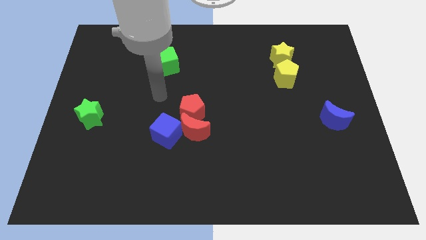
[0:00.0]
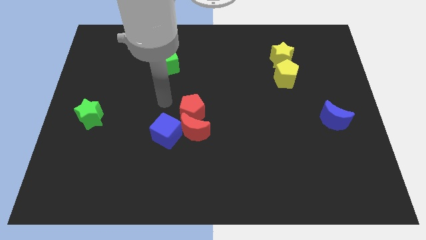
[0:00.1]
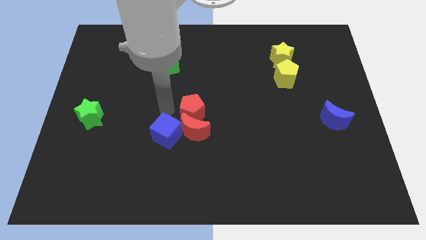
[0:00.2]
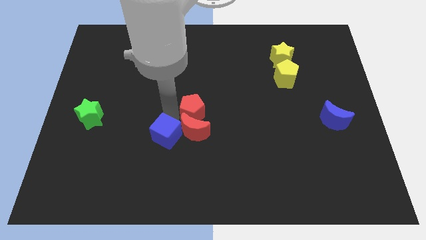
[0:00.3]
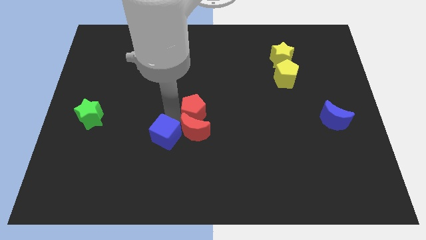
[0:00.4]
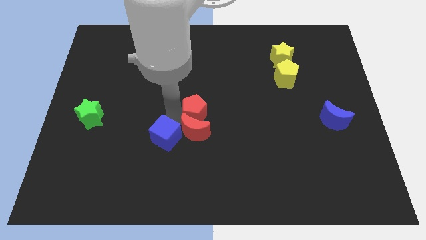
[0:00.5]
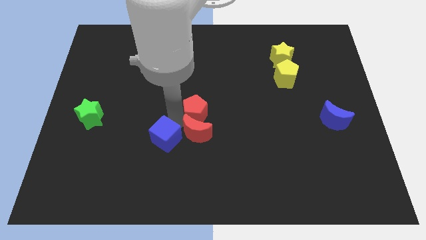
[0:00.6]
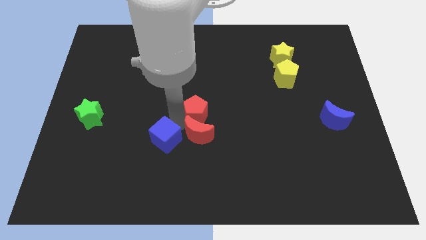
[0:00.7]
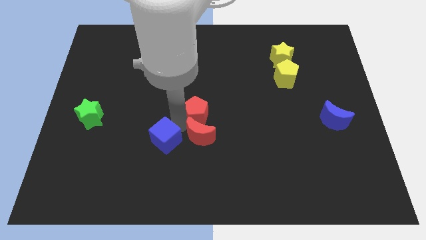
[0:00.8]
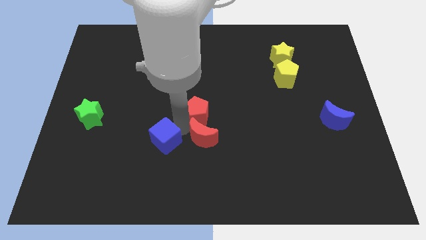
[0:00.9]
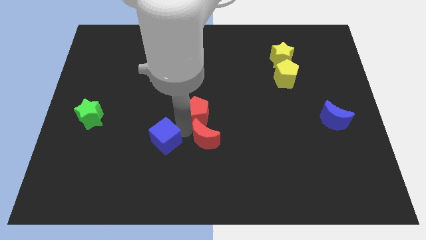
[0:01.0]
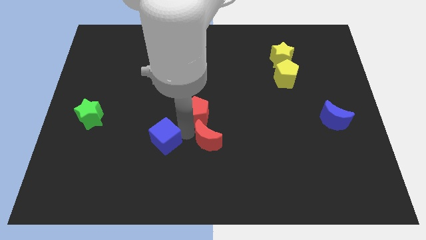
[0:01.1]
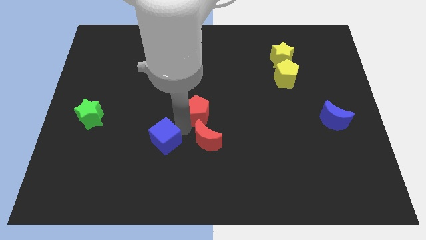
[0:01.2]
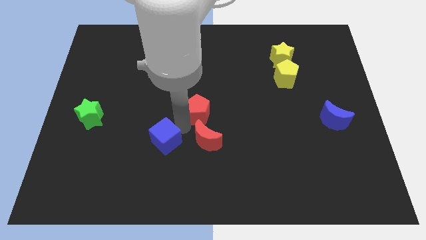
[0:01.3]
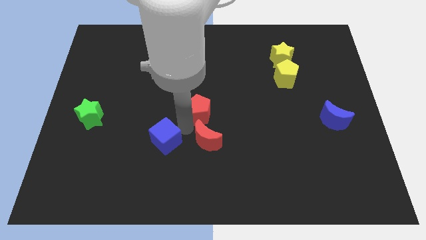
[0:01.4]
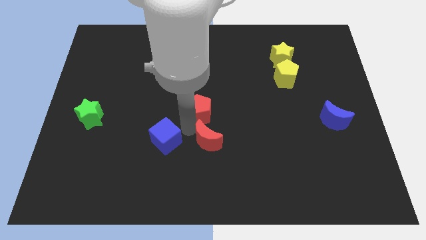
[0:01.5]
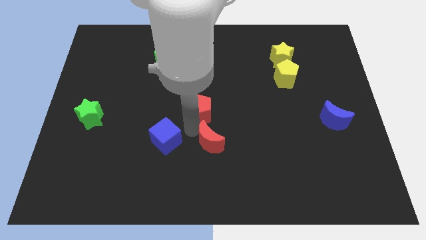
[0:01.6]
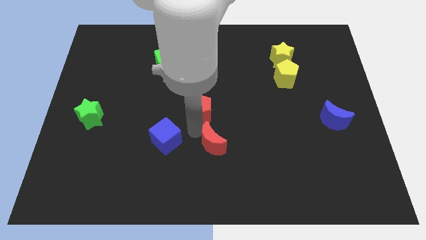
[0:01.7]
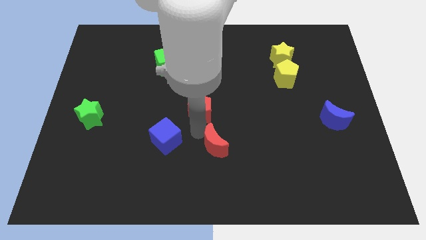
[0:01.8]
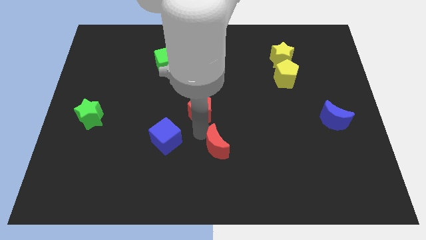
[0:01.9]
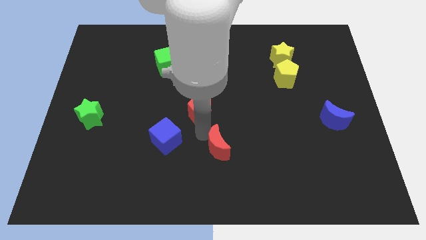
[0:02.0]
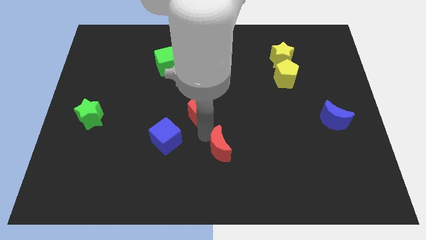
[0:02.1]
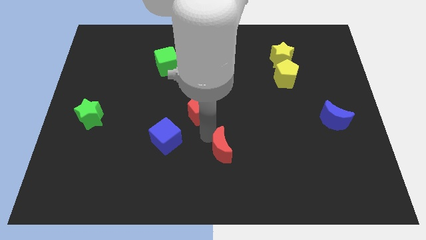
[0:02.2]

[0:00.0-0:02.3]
move the red moon away from the red pentagon and blue cube

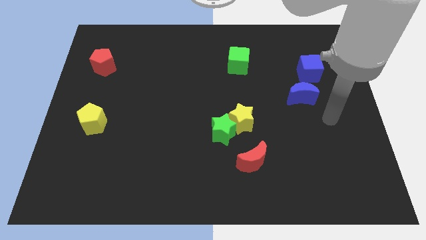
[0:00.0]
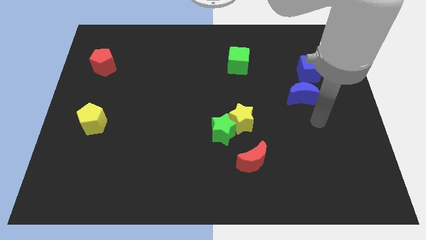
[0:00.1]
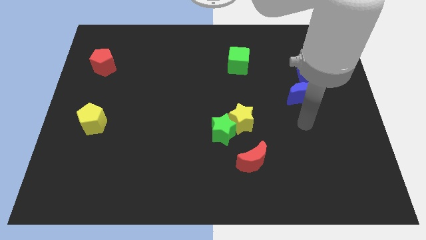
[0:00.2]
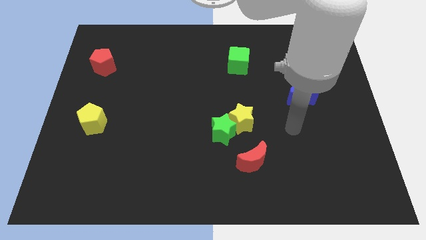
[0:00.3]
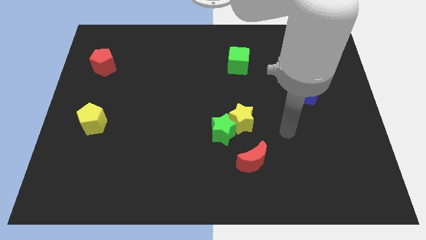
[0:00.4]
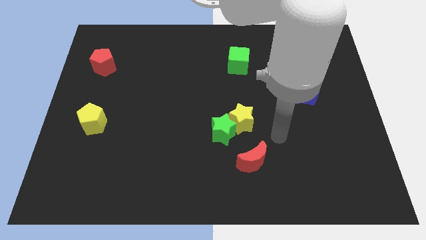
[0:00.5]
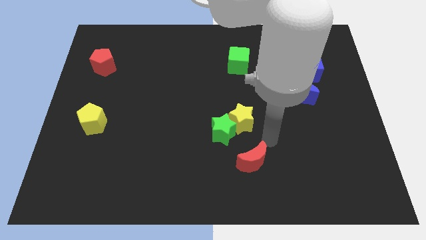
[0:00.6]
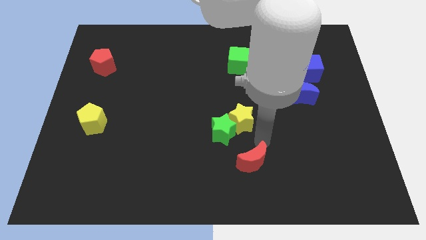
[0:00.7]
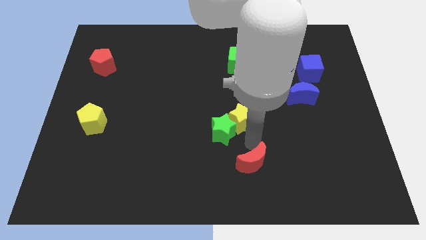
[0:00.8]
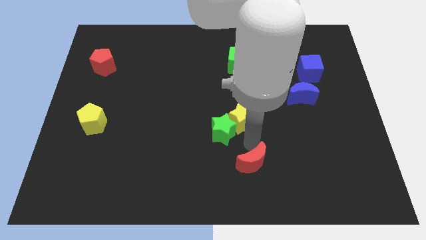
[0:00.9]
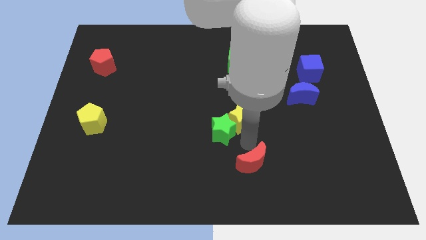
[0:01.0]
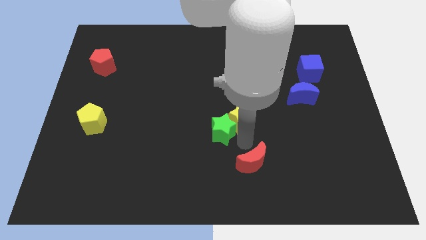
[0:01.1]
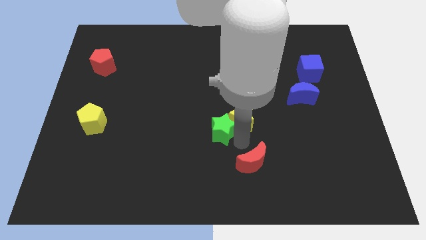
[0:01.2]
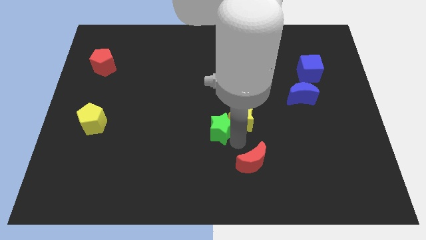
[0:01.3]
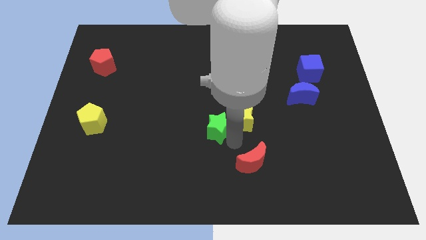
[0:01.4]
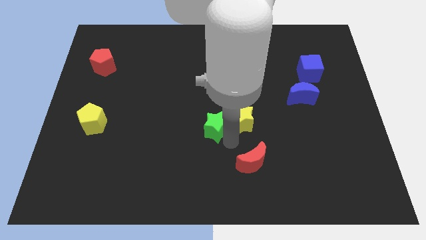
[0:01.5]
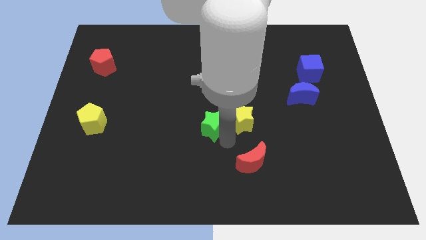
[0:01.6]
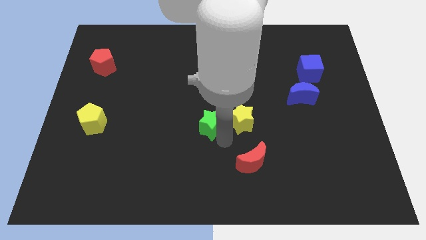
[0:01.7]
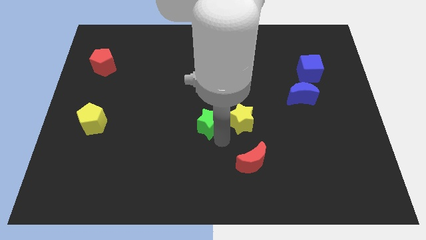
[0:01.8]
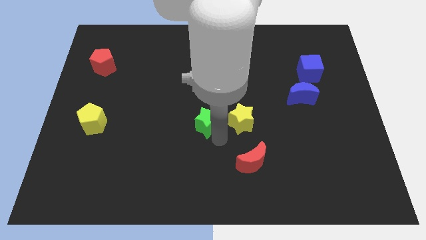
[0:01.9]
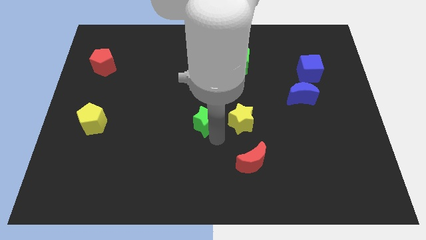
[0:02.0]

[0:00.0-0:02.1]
separate the green star from the yellow star and red moon

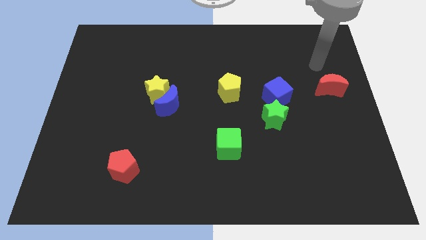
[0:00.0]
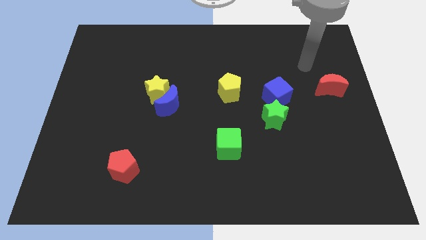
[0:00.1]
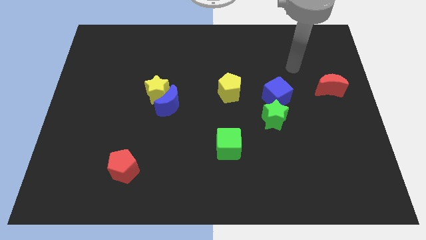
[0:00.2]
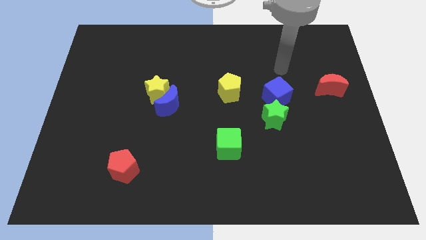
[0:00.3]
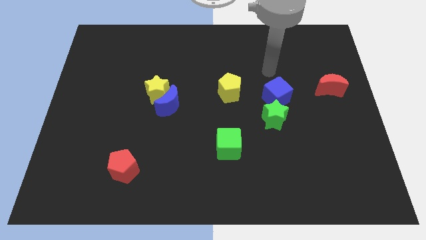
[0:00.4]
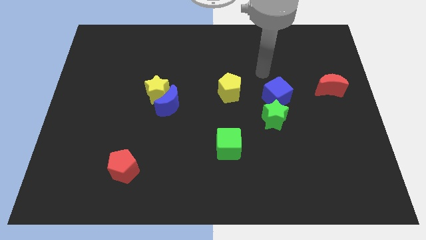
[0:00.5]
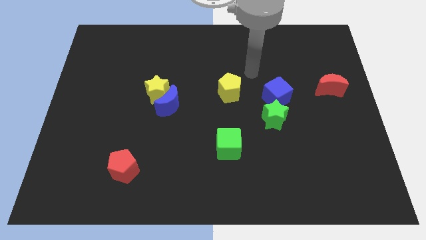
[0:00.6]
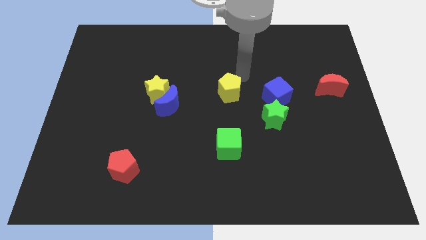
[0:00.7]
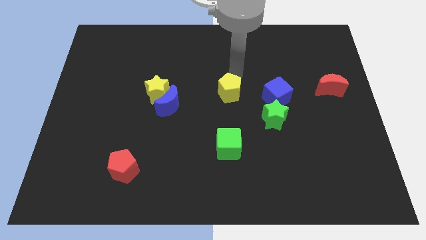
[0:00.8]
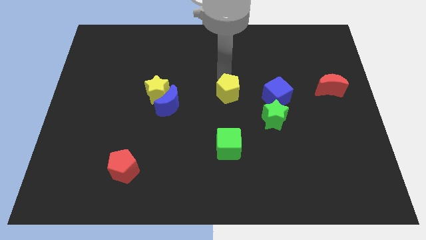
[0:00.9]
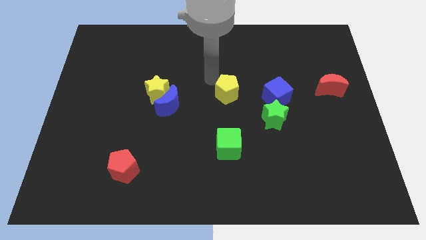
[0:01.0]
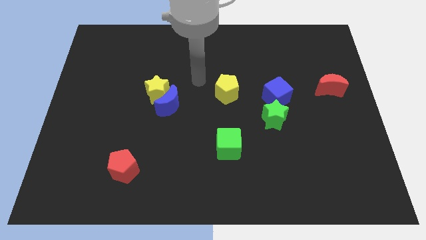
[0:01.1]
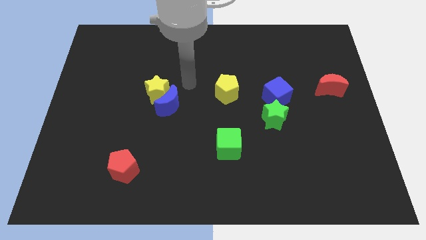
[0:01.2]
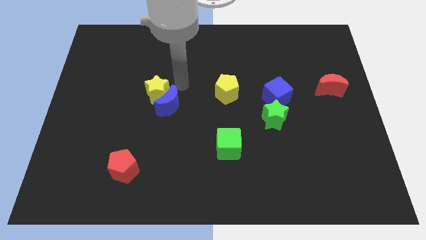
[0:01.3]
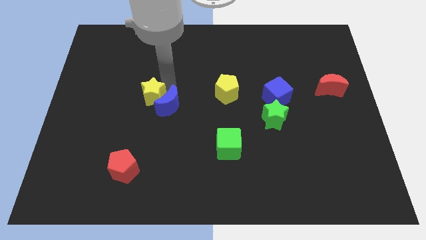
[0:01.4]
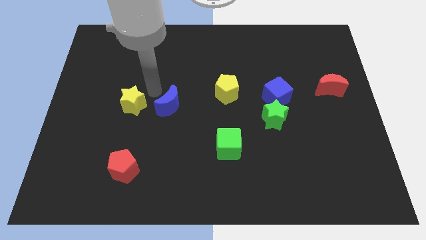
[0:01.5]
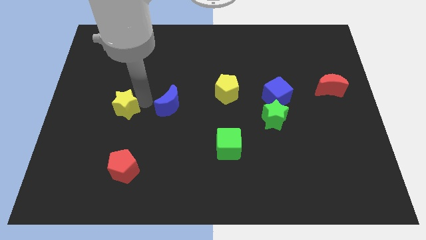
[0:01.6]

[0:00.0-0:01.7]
separate the blue moon from the yellow star

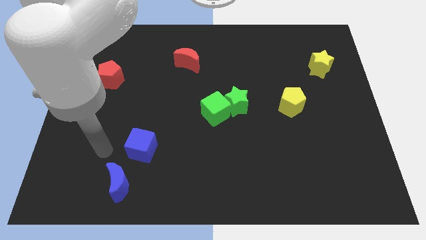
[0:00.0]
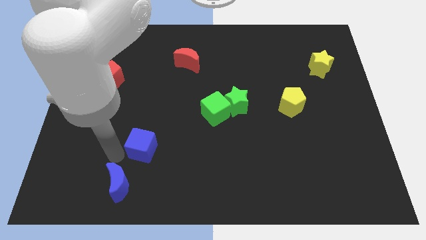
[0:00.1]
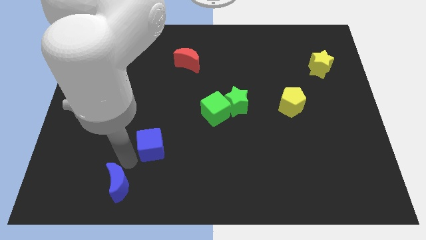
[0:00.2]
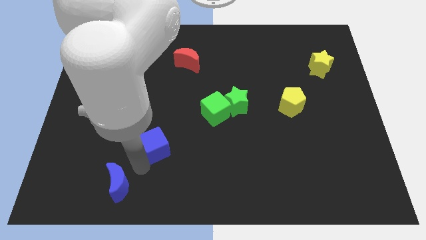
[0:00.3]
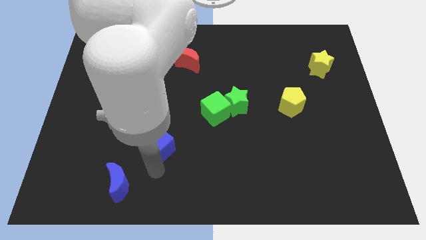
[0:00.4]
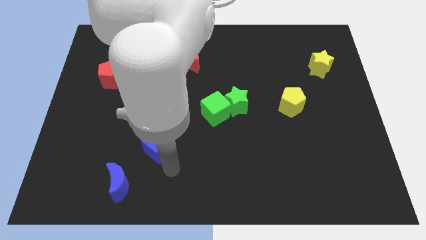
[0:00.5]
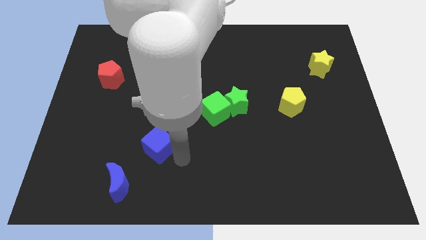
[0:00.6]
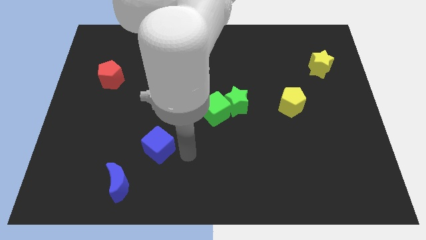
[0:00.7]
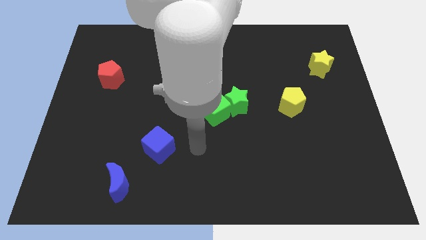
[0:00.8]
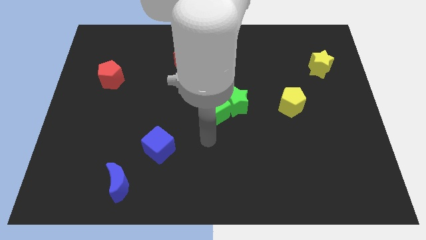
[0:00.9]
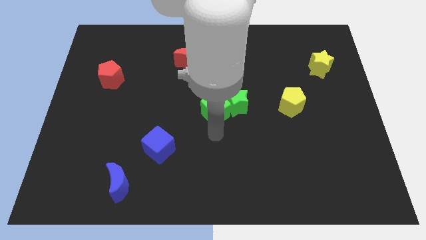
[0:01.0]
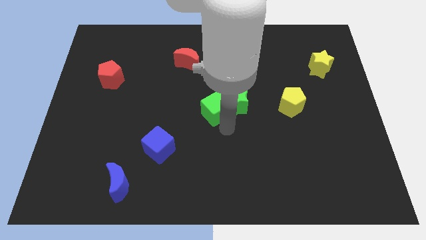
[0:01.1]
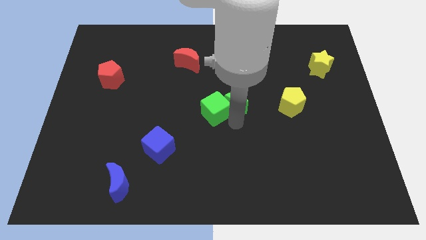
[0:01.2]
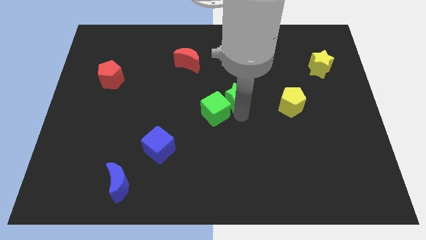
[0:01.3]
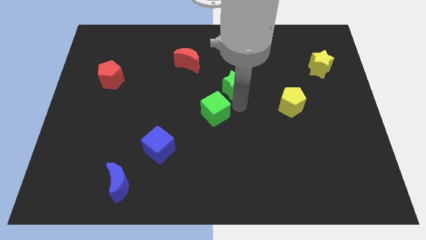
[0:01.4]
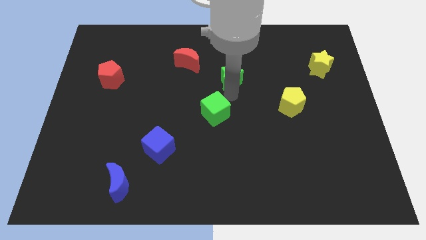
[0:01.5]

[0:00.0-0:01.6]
separate the green cube from the green star

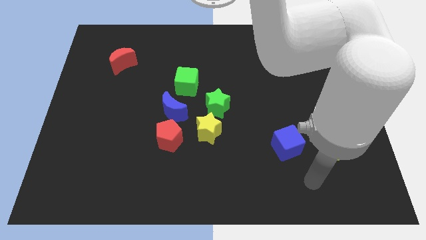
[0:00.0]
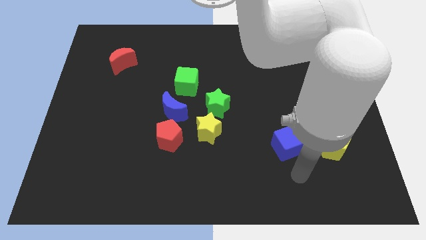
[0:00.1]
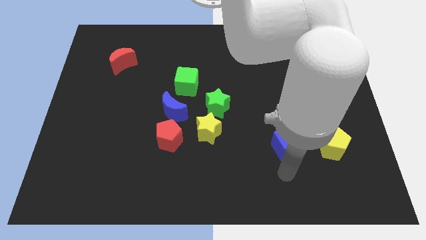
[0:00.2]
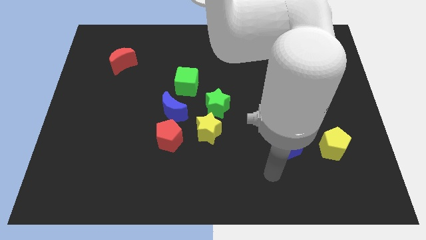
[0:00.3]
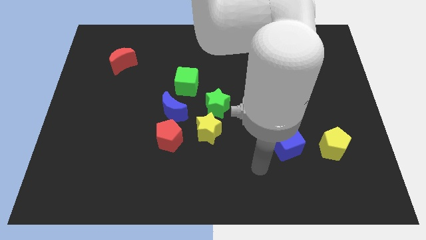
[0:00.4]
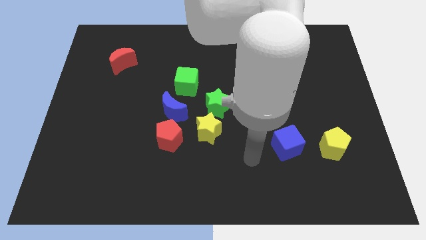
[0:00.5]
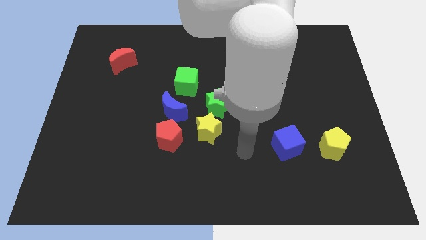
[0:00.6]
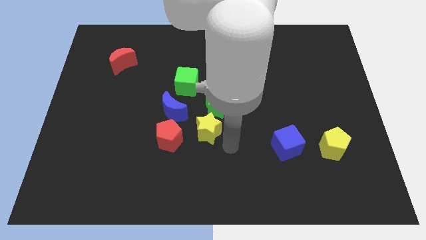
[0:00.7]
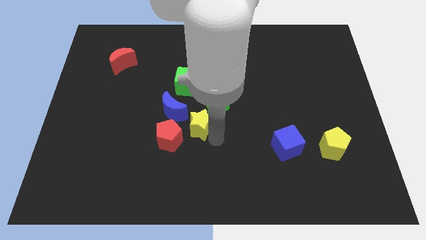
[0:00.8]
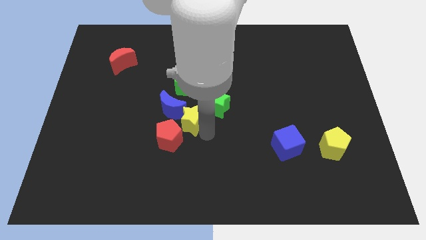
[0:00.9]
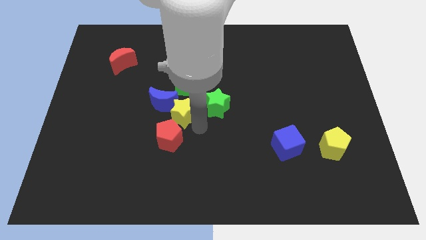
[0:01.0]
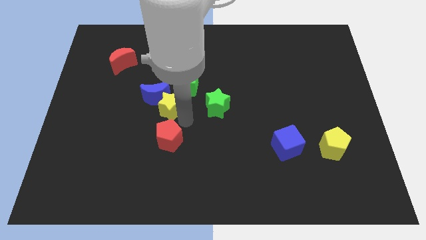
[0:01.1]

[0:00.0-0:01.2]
move the red pentagon away from the blue moon and yellow star

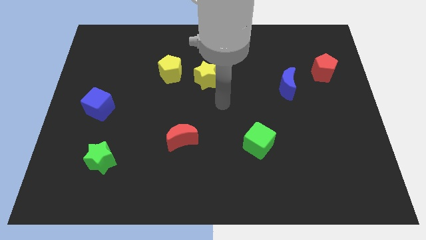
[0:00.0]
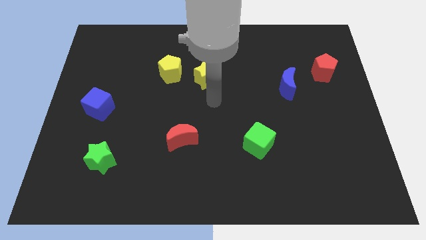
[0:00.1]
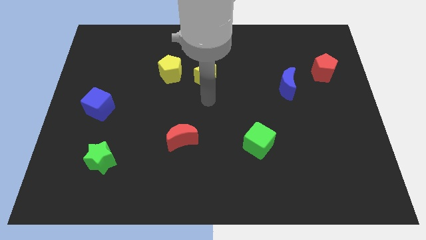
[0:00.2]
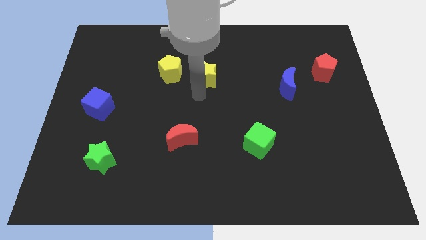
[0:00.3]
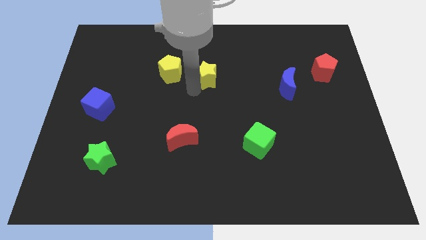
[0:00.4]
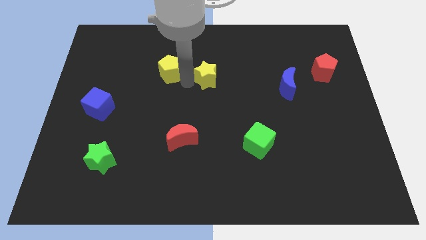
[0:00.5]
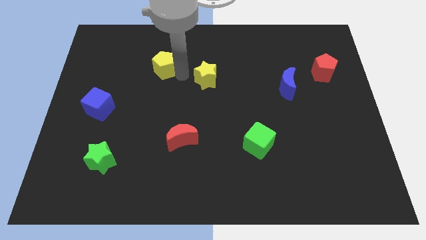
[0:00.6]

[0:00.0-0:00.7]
separate the yellow star from the yellow pentagon
